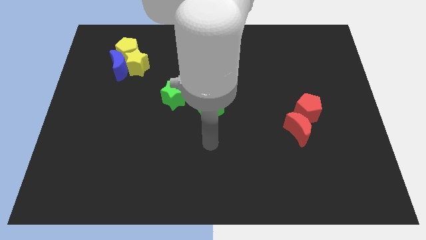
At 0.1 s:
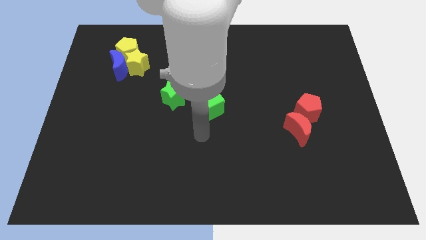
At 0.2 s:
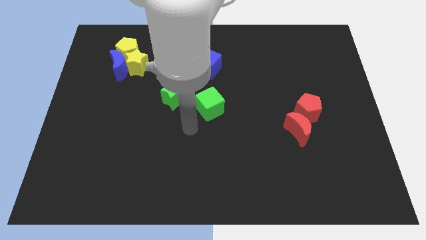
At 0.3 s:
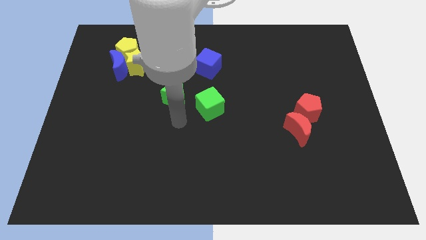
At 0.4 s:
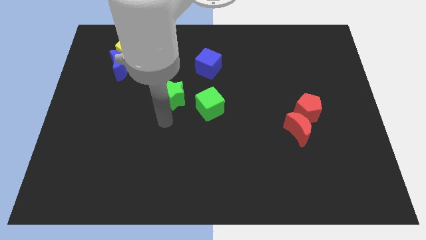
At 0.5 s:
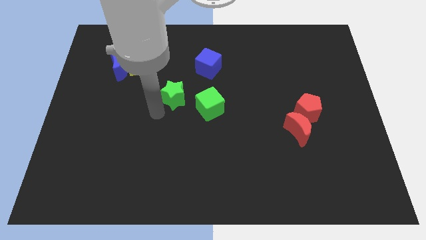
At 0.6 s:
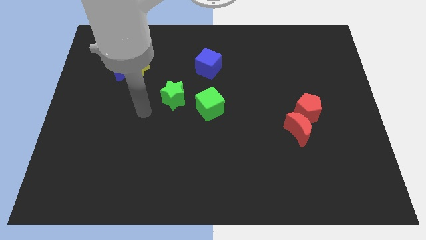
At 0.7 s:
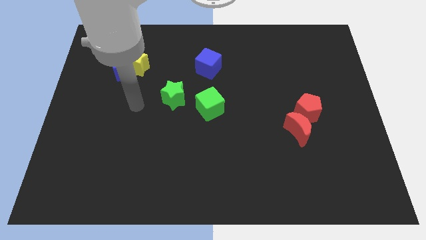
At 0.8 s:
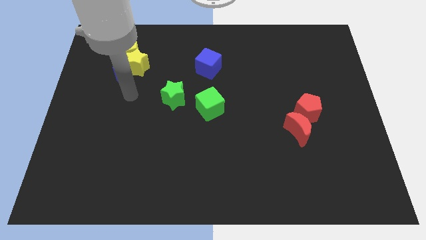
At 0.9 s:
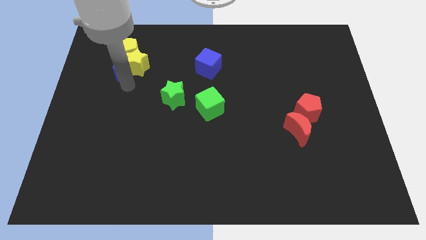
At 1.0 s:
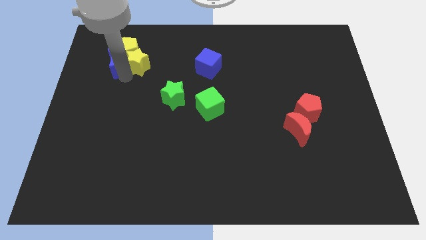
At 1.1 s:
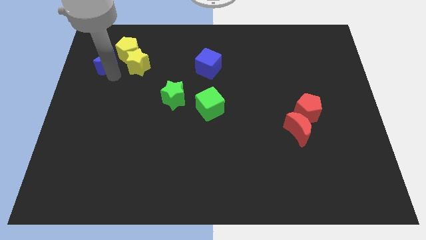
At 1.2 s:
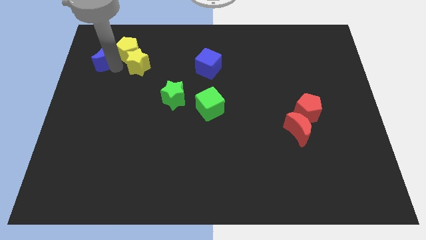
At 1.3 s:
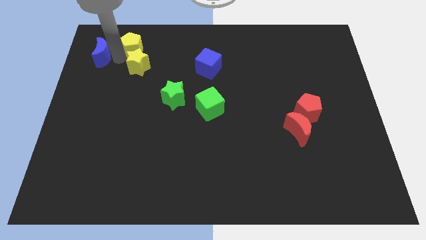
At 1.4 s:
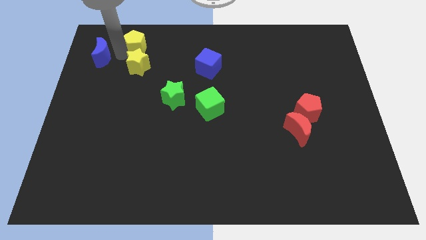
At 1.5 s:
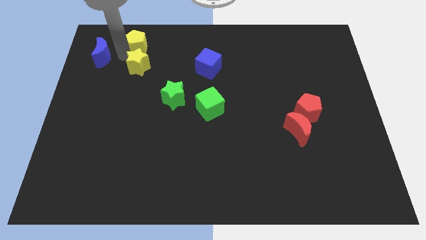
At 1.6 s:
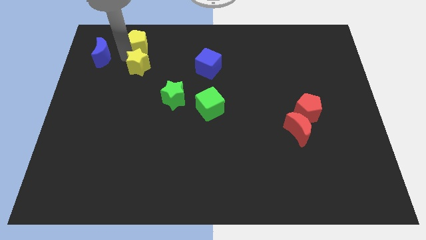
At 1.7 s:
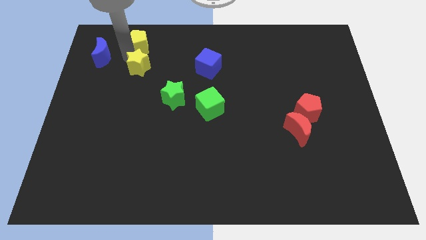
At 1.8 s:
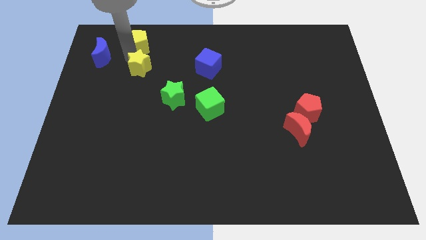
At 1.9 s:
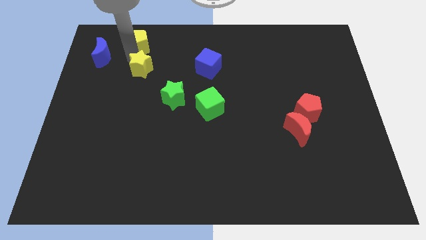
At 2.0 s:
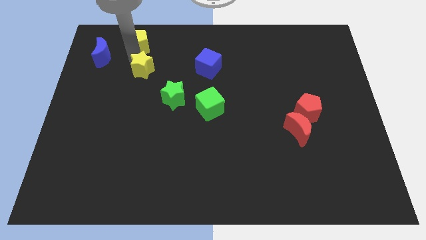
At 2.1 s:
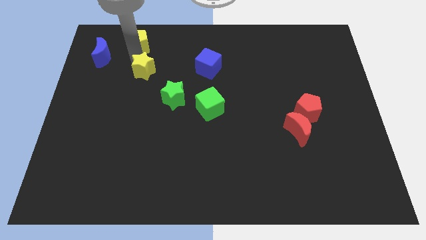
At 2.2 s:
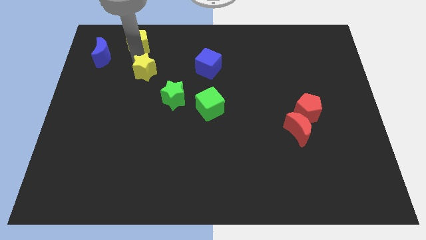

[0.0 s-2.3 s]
pull the yellow star apart from the blue moon and yellow pentagon

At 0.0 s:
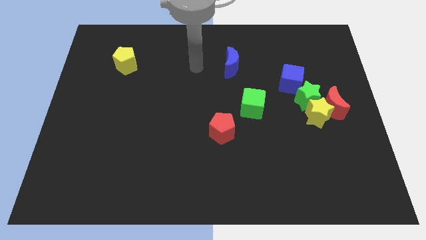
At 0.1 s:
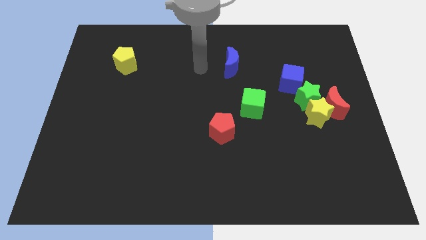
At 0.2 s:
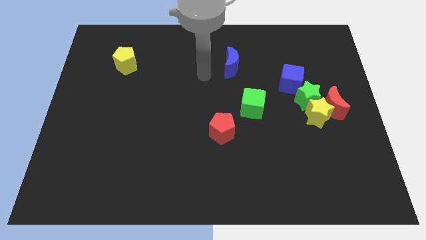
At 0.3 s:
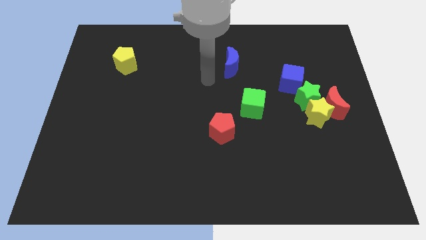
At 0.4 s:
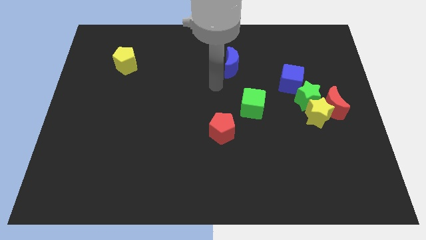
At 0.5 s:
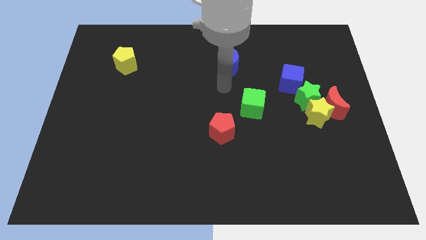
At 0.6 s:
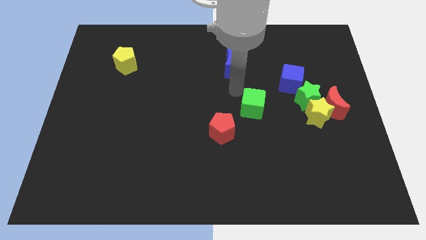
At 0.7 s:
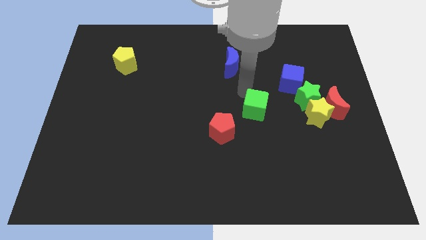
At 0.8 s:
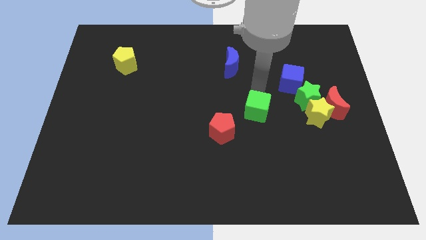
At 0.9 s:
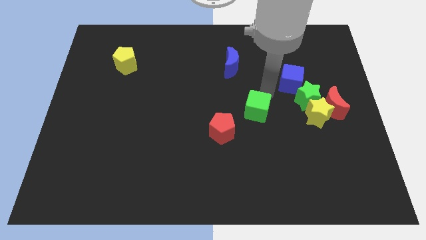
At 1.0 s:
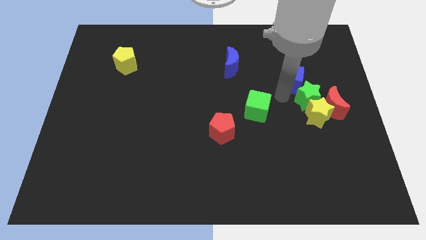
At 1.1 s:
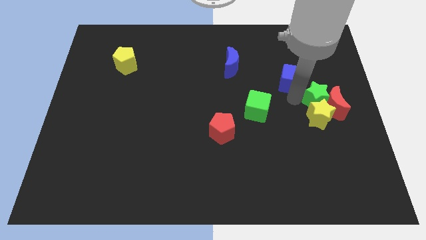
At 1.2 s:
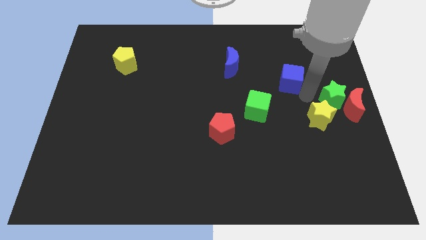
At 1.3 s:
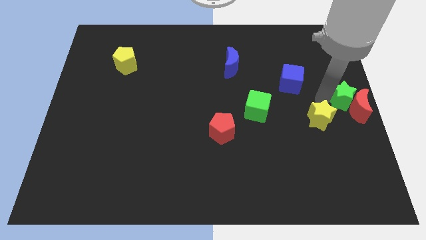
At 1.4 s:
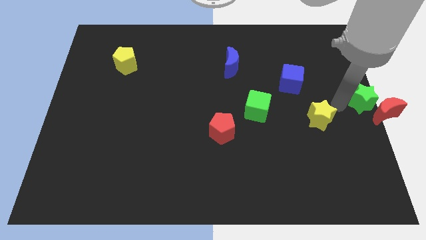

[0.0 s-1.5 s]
separate the yellow star from the red moon and green star

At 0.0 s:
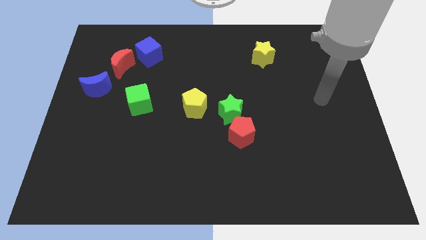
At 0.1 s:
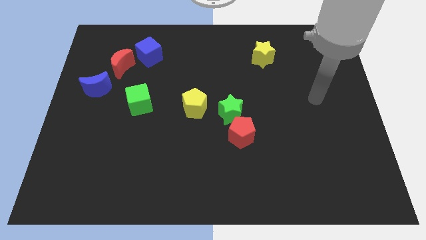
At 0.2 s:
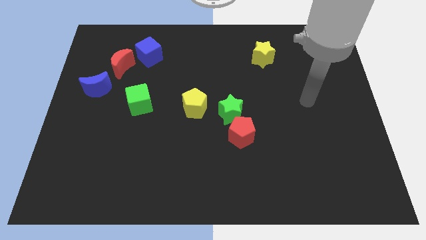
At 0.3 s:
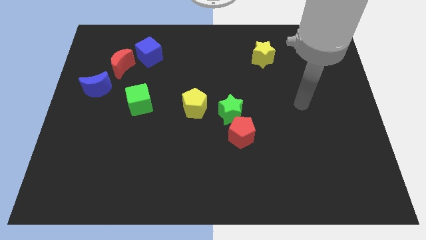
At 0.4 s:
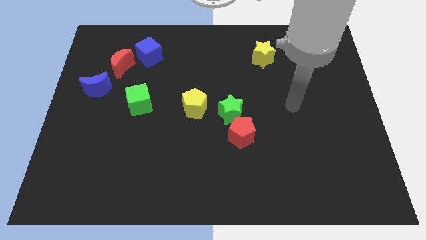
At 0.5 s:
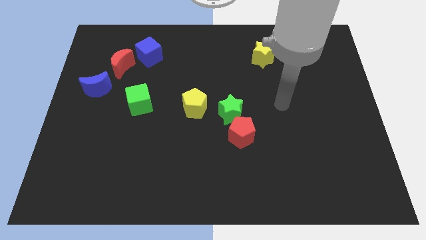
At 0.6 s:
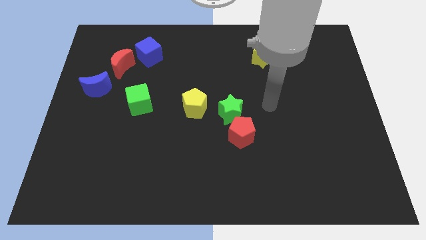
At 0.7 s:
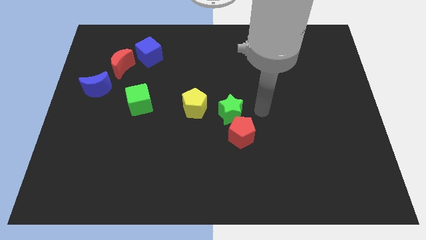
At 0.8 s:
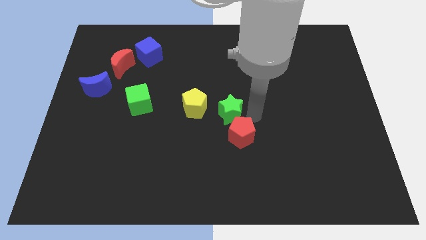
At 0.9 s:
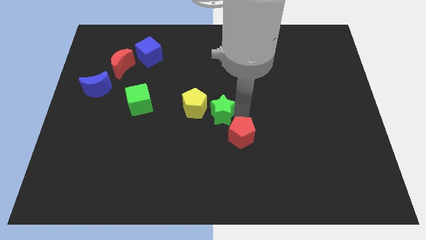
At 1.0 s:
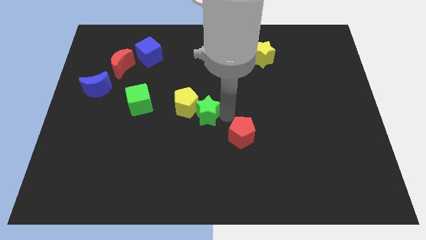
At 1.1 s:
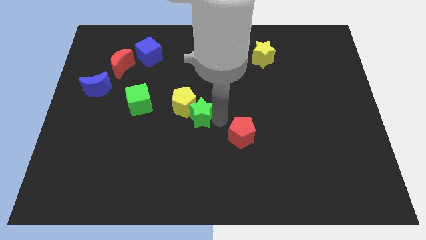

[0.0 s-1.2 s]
pull the red pentagon apart from the green star

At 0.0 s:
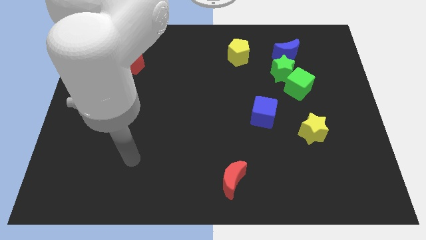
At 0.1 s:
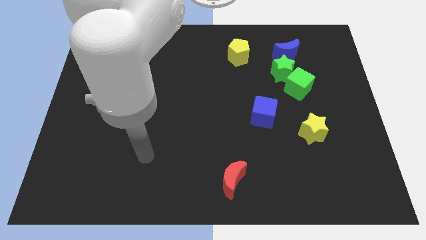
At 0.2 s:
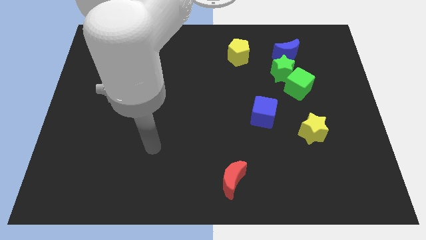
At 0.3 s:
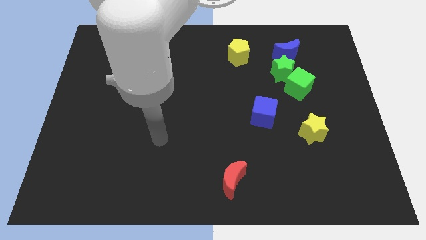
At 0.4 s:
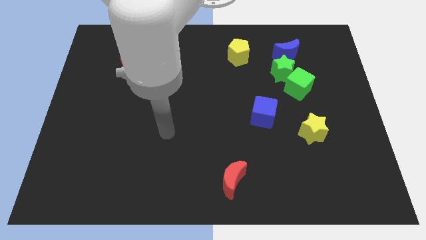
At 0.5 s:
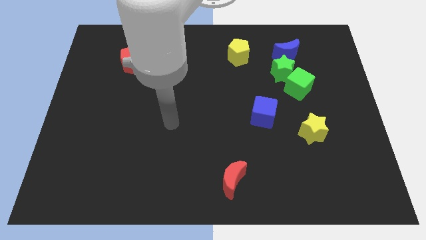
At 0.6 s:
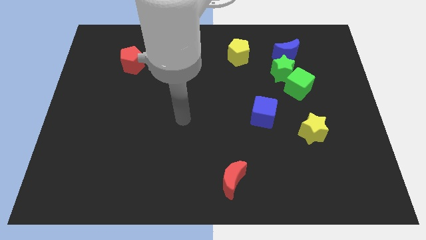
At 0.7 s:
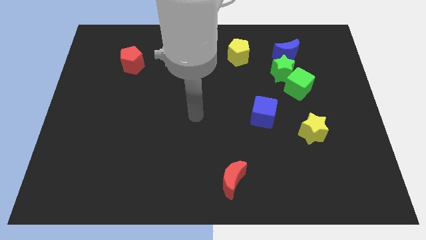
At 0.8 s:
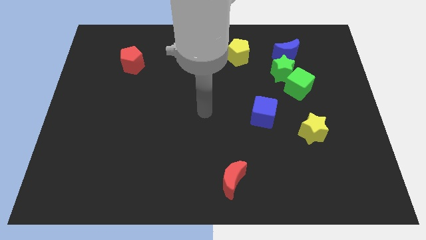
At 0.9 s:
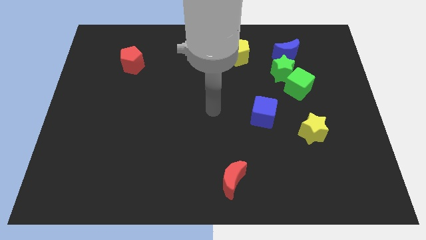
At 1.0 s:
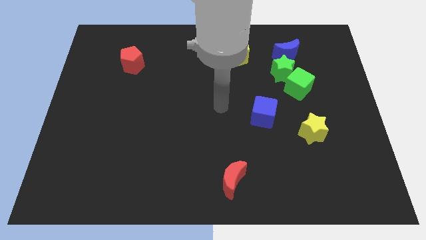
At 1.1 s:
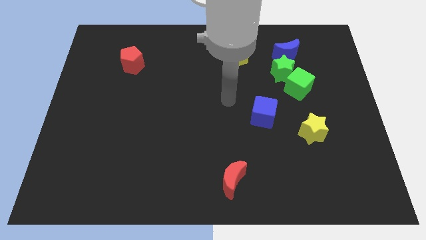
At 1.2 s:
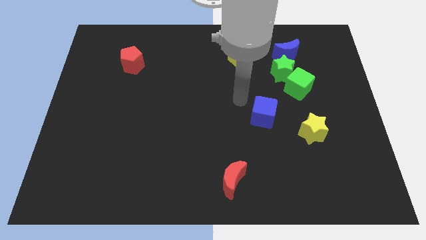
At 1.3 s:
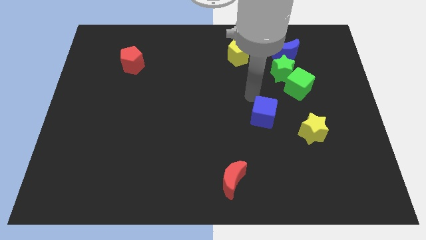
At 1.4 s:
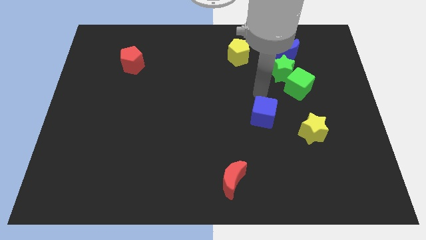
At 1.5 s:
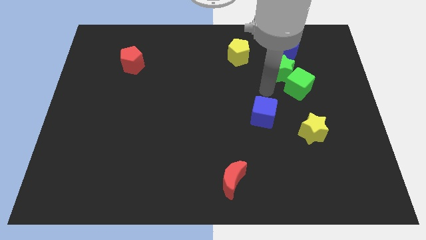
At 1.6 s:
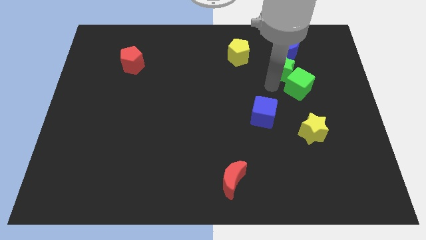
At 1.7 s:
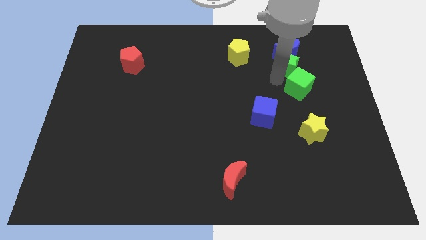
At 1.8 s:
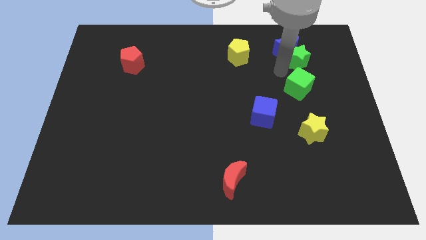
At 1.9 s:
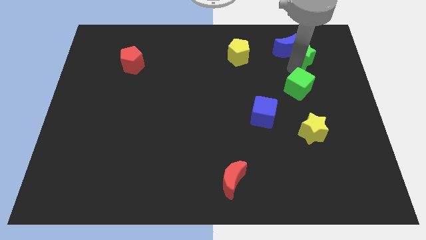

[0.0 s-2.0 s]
pull the green cube apart from the green star

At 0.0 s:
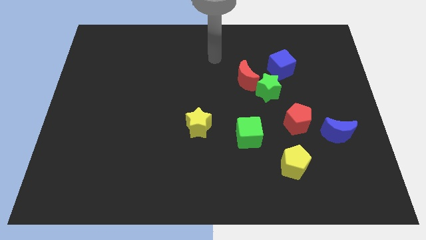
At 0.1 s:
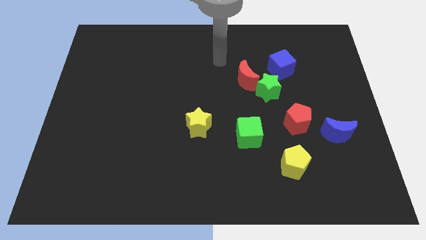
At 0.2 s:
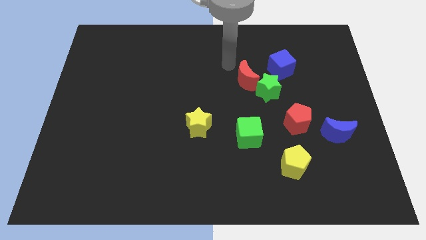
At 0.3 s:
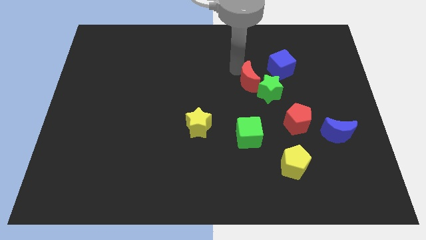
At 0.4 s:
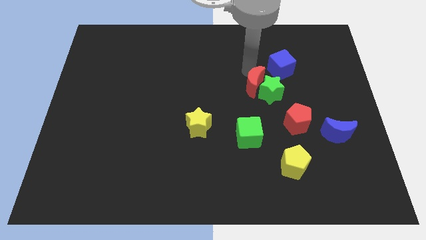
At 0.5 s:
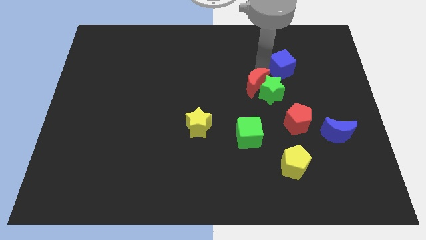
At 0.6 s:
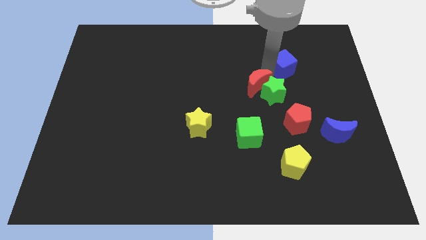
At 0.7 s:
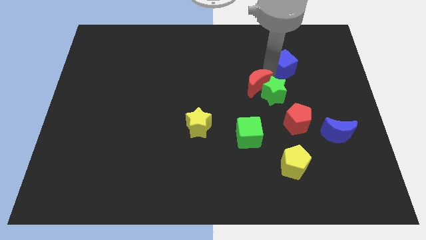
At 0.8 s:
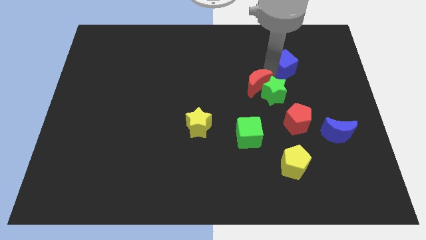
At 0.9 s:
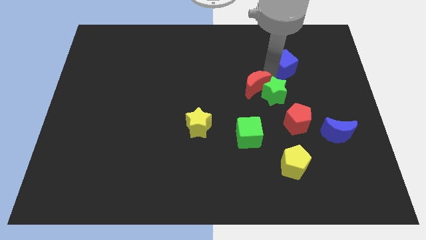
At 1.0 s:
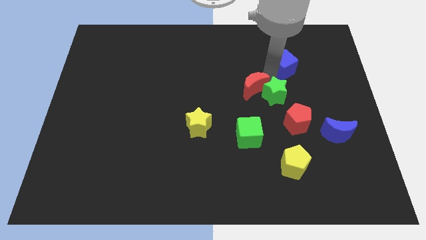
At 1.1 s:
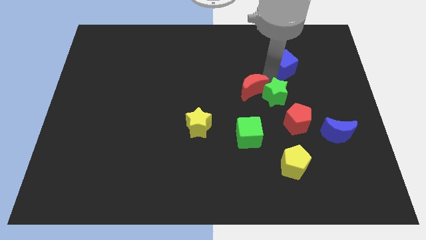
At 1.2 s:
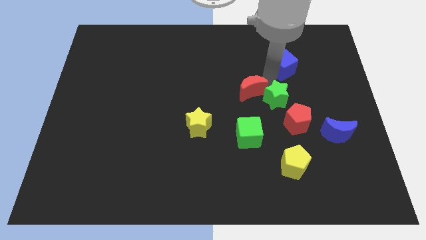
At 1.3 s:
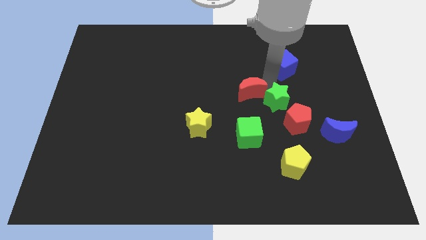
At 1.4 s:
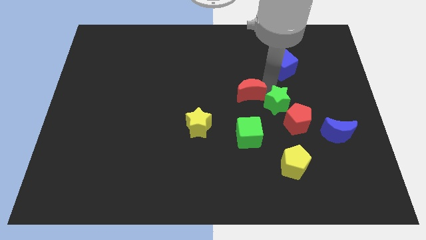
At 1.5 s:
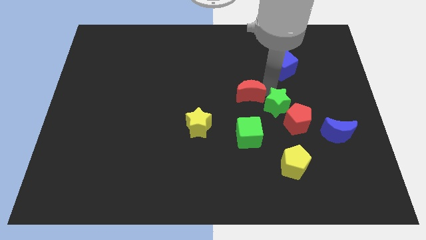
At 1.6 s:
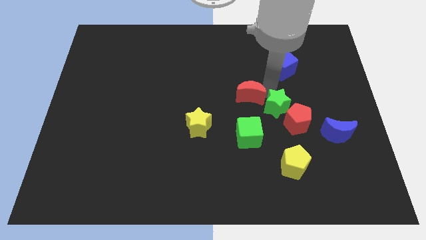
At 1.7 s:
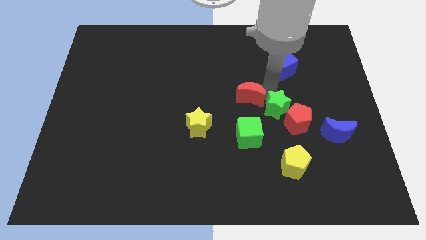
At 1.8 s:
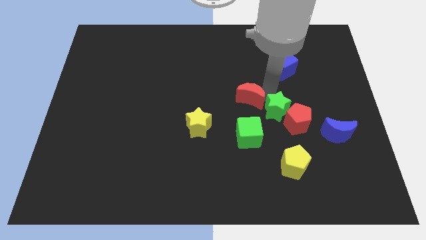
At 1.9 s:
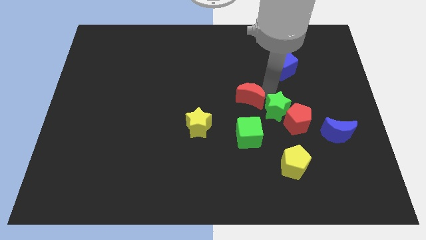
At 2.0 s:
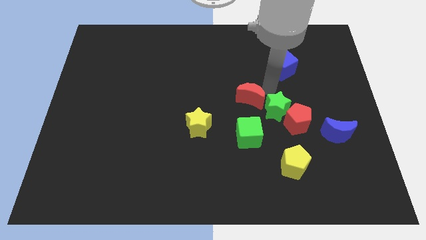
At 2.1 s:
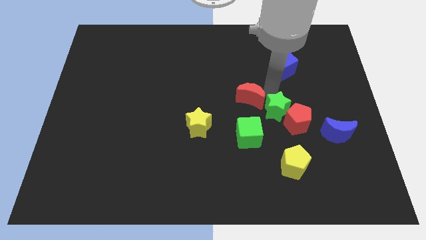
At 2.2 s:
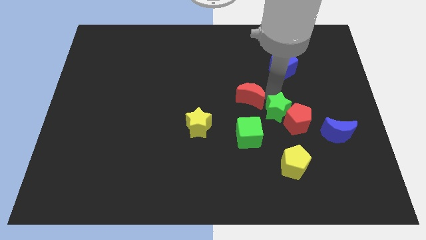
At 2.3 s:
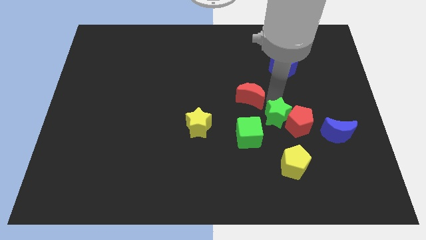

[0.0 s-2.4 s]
separate the green star from the red moon and blue cube
